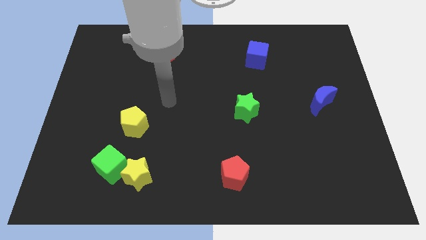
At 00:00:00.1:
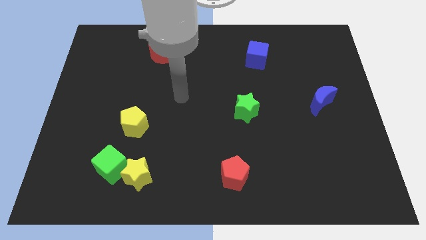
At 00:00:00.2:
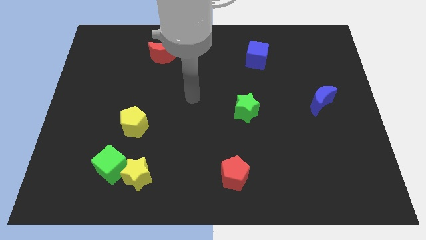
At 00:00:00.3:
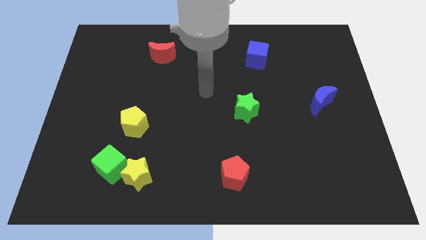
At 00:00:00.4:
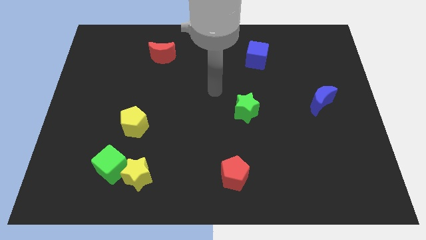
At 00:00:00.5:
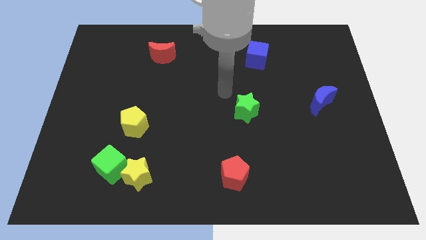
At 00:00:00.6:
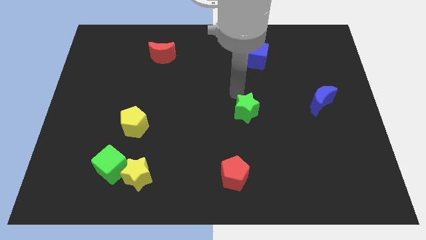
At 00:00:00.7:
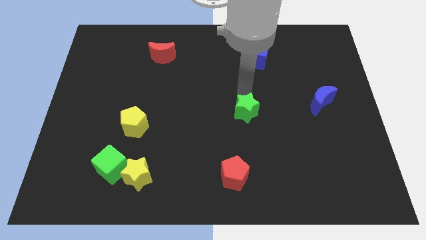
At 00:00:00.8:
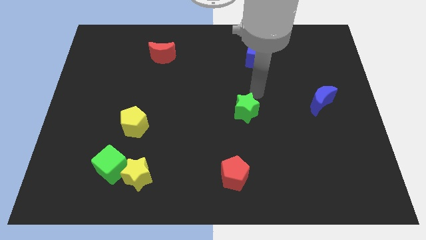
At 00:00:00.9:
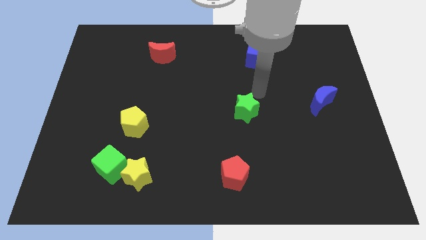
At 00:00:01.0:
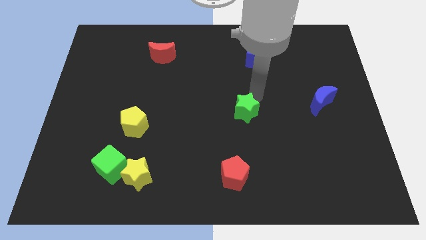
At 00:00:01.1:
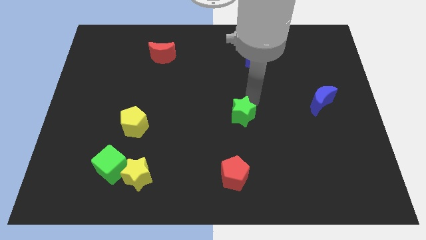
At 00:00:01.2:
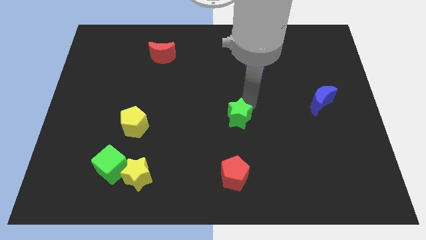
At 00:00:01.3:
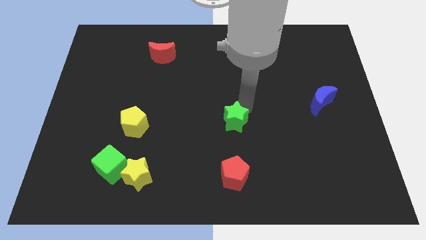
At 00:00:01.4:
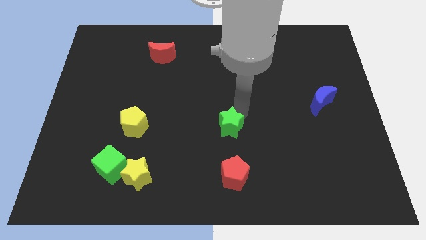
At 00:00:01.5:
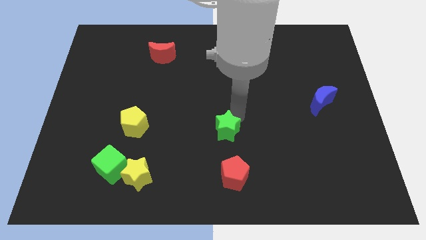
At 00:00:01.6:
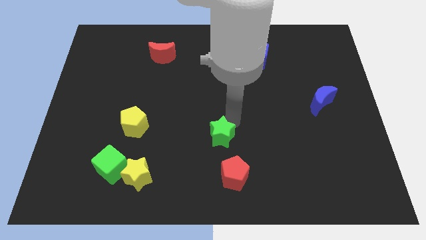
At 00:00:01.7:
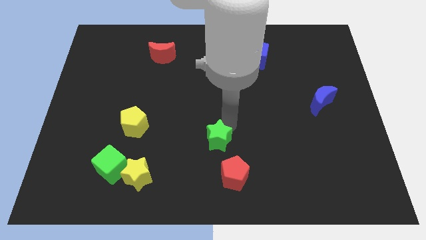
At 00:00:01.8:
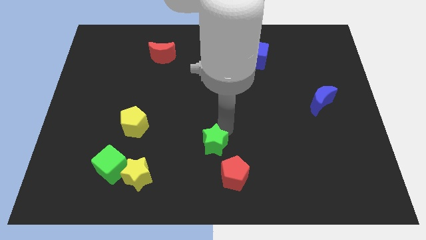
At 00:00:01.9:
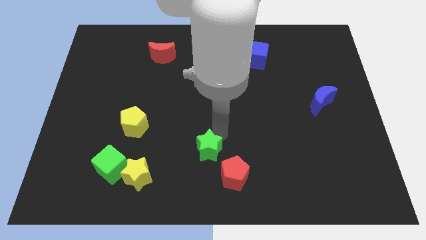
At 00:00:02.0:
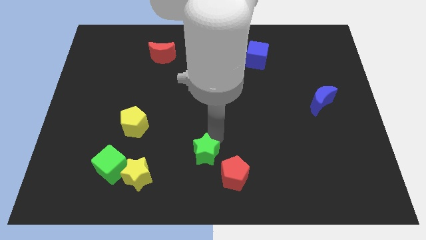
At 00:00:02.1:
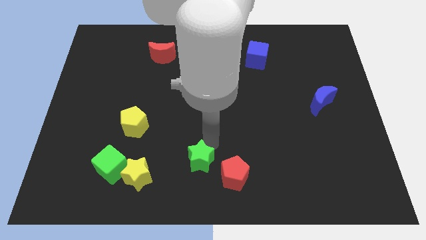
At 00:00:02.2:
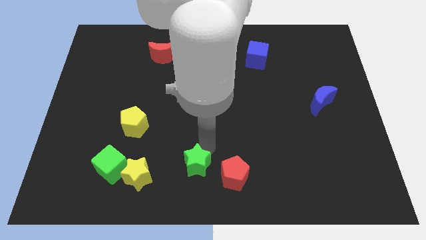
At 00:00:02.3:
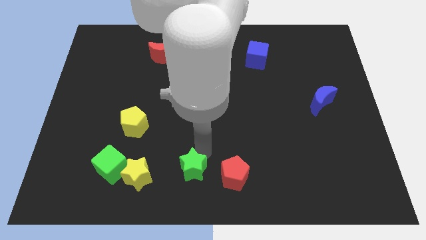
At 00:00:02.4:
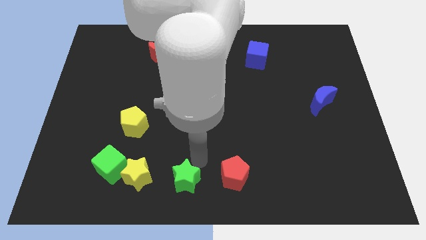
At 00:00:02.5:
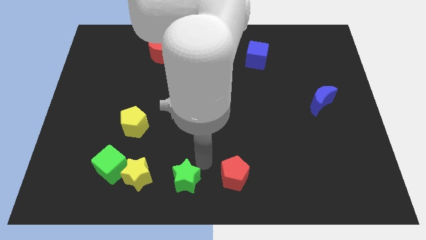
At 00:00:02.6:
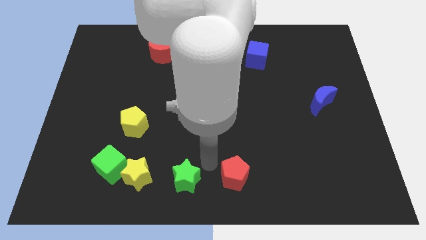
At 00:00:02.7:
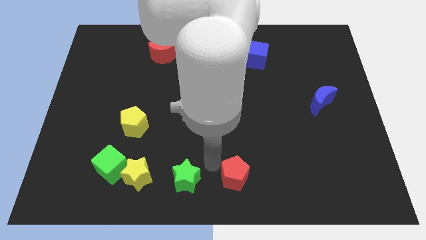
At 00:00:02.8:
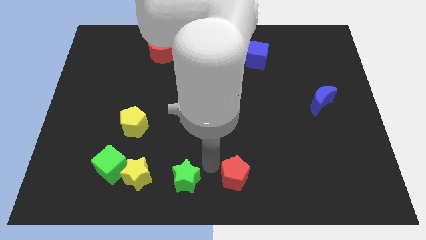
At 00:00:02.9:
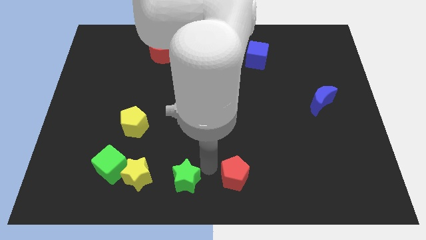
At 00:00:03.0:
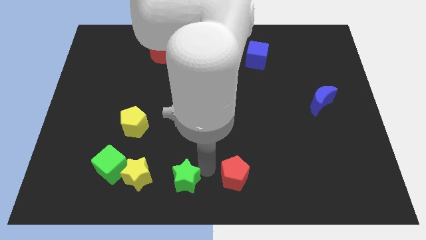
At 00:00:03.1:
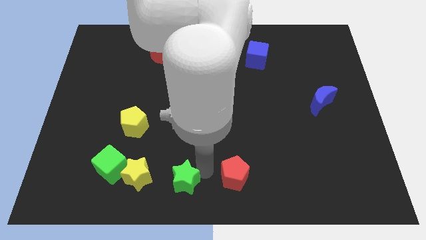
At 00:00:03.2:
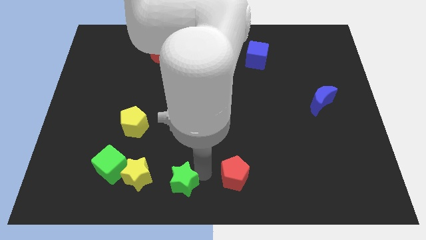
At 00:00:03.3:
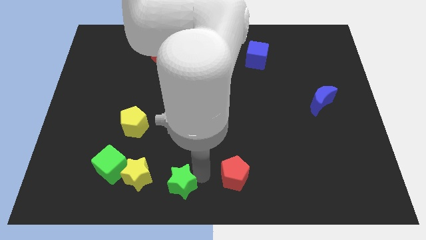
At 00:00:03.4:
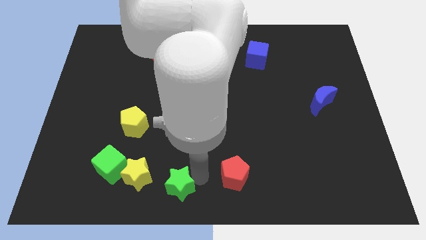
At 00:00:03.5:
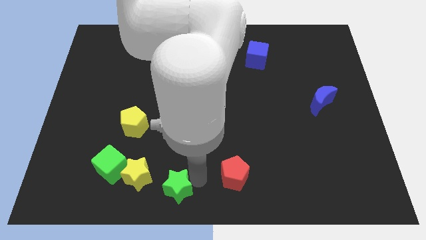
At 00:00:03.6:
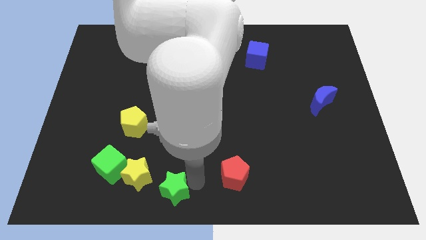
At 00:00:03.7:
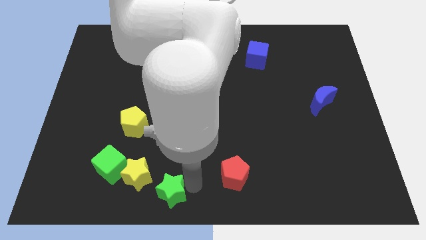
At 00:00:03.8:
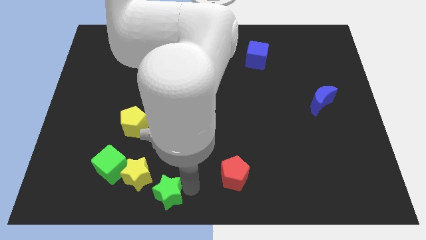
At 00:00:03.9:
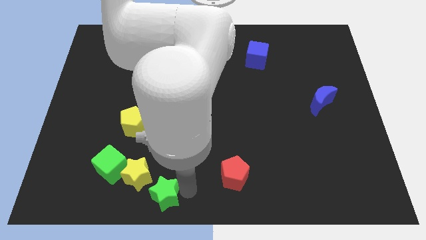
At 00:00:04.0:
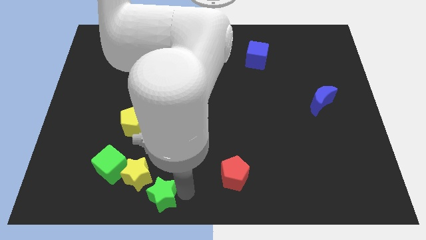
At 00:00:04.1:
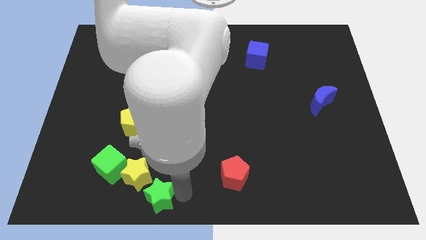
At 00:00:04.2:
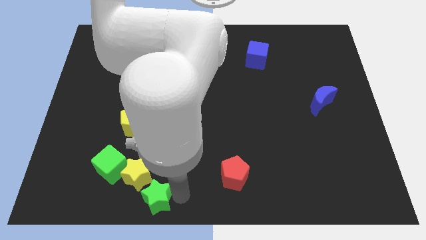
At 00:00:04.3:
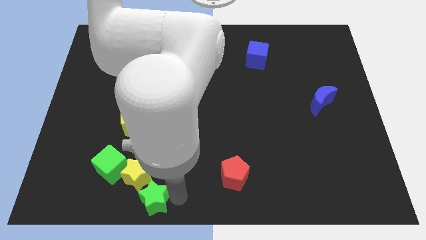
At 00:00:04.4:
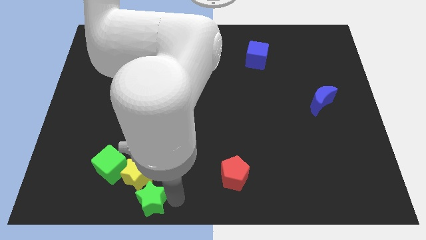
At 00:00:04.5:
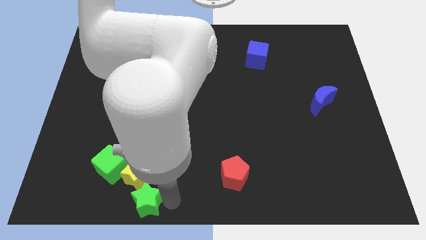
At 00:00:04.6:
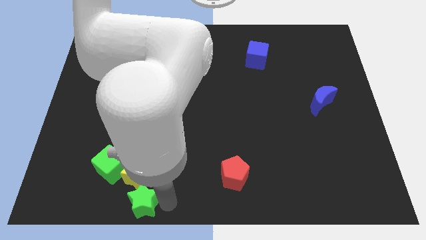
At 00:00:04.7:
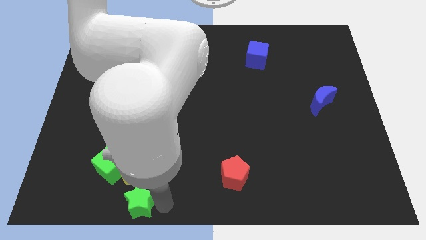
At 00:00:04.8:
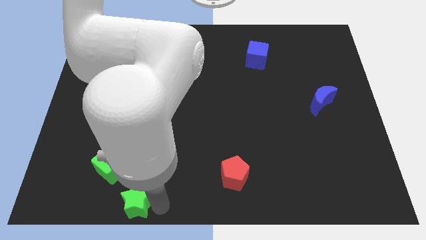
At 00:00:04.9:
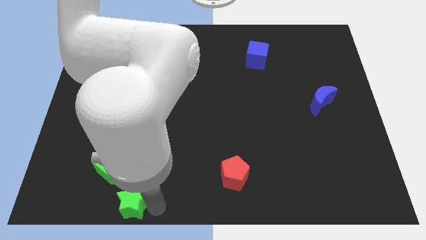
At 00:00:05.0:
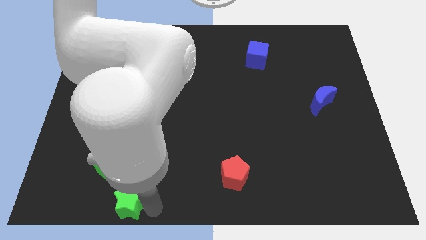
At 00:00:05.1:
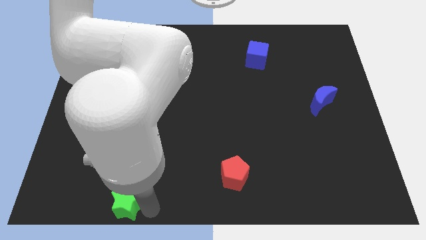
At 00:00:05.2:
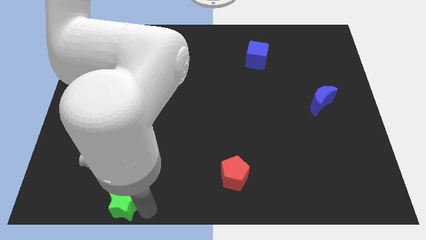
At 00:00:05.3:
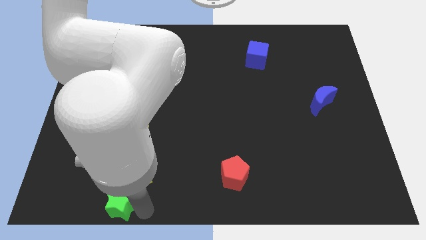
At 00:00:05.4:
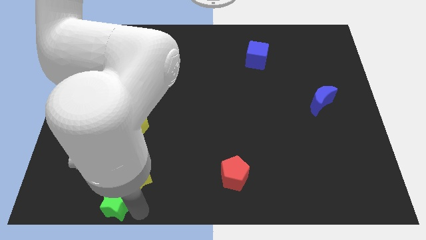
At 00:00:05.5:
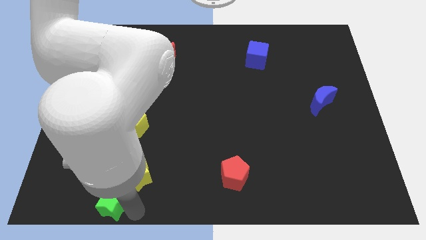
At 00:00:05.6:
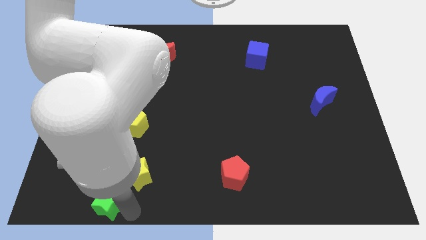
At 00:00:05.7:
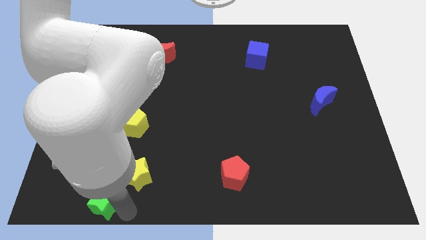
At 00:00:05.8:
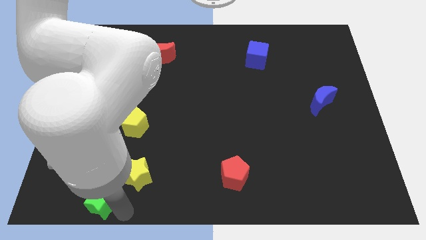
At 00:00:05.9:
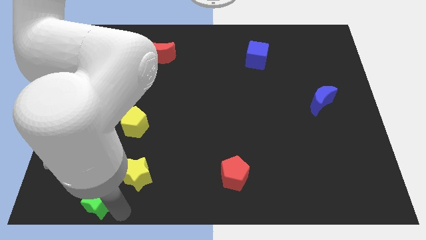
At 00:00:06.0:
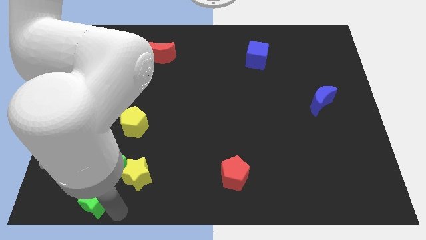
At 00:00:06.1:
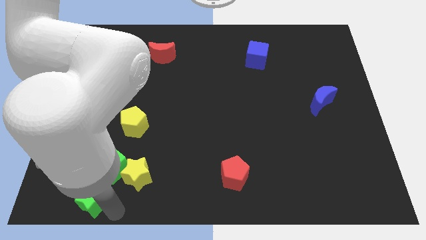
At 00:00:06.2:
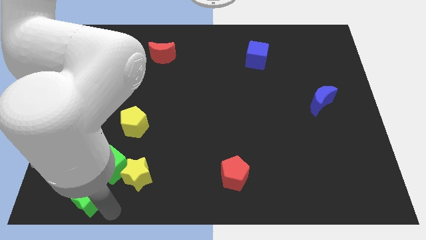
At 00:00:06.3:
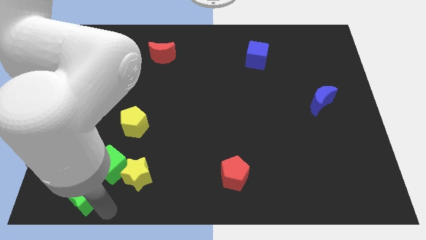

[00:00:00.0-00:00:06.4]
push the green star to the left of the yellow star

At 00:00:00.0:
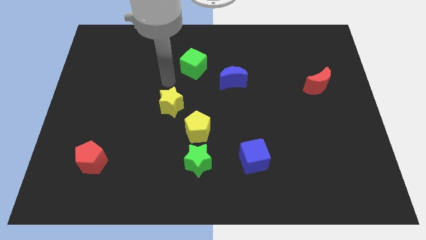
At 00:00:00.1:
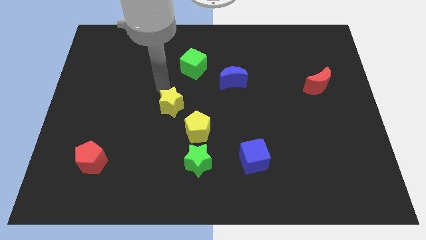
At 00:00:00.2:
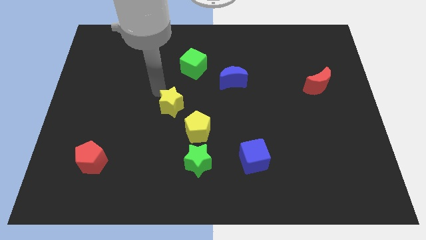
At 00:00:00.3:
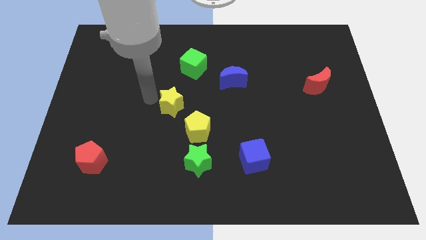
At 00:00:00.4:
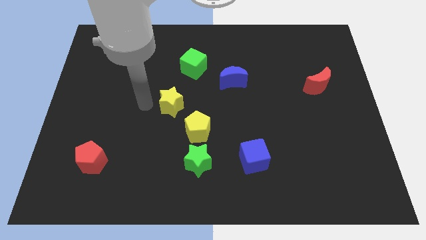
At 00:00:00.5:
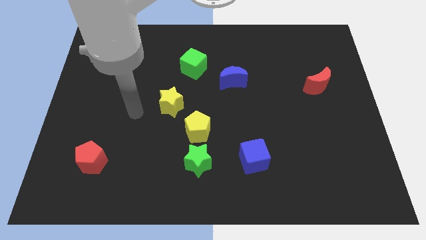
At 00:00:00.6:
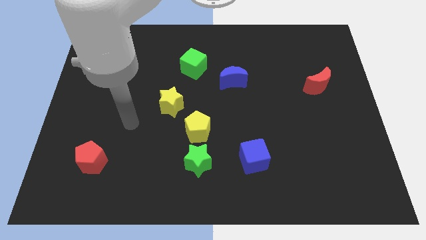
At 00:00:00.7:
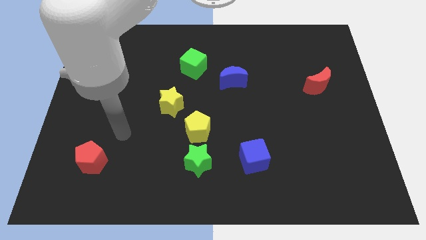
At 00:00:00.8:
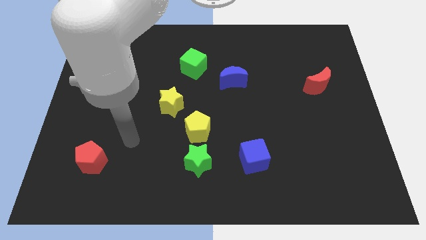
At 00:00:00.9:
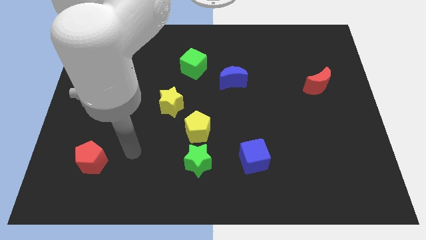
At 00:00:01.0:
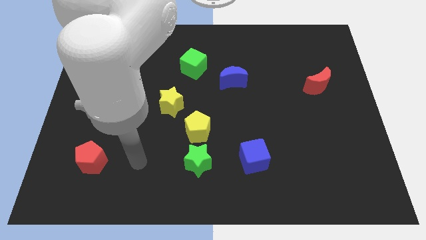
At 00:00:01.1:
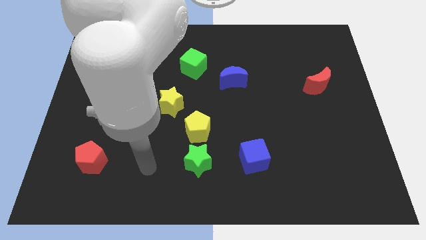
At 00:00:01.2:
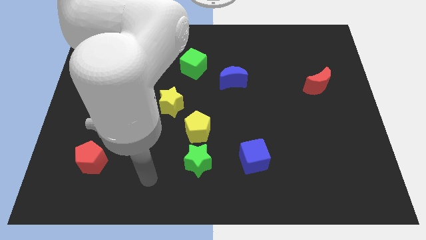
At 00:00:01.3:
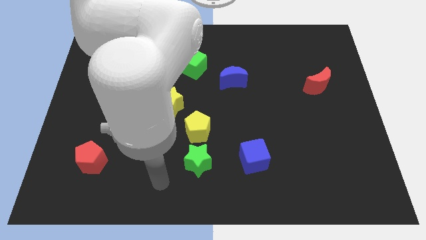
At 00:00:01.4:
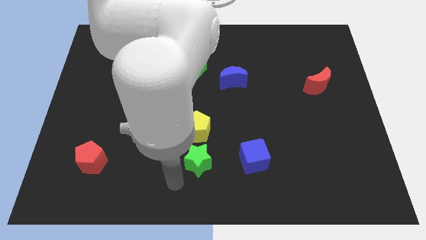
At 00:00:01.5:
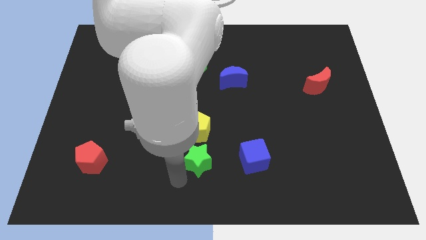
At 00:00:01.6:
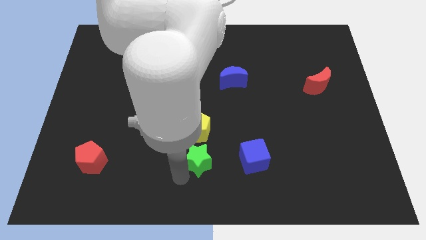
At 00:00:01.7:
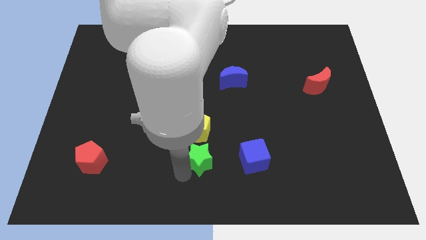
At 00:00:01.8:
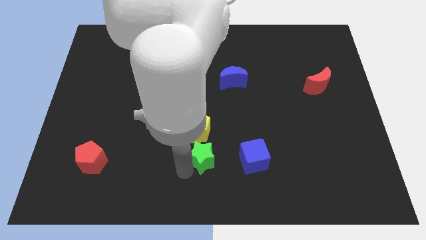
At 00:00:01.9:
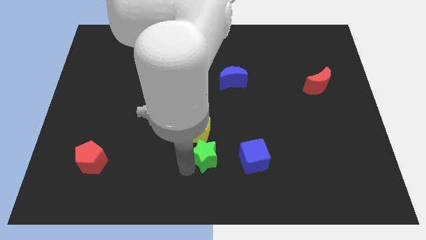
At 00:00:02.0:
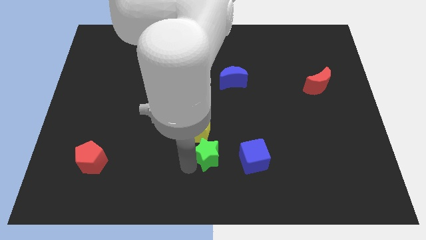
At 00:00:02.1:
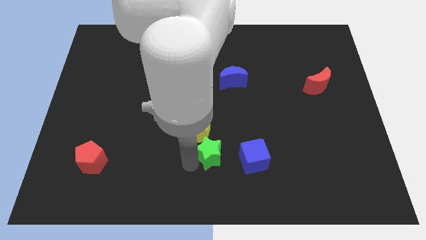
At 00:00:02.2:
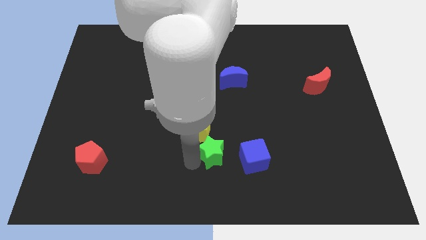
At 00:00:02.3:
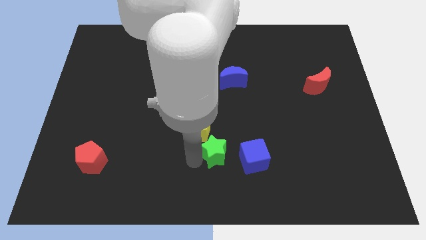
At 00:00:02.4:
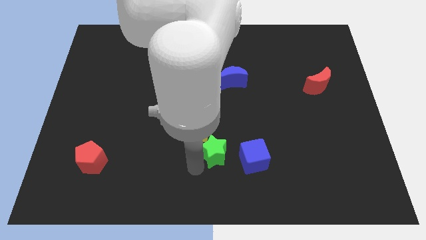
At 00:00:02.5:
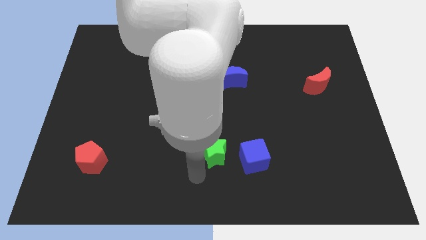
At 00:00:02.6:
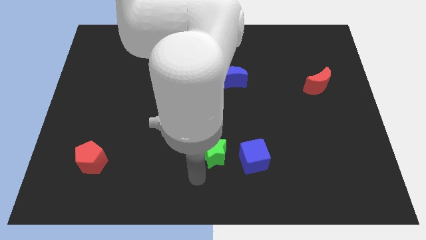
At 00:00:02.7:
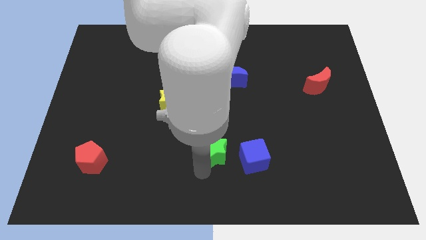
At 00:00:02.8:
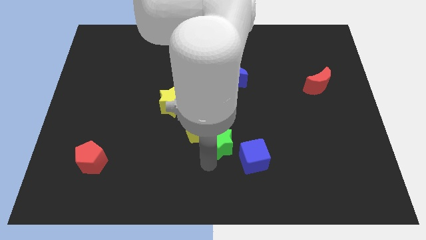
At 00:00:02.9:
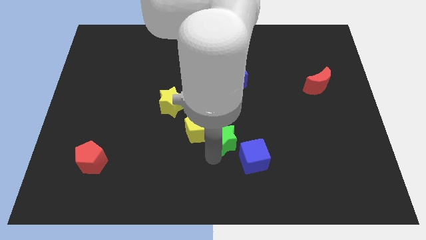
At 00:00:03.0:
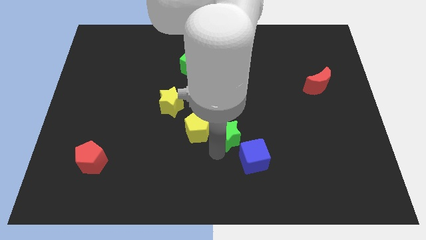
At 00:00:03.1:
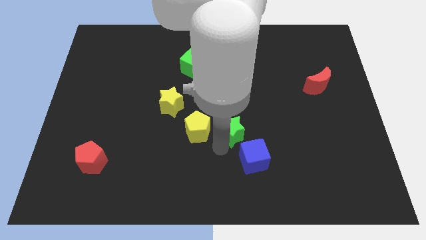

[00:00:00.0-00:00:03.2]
move the green star to the top of the blue cube
